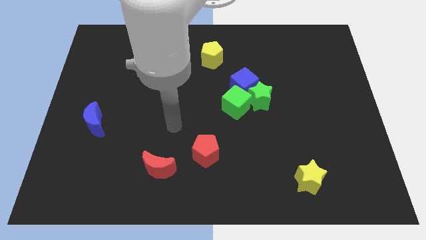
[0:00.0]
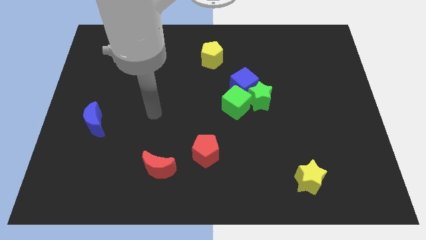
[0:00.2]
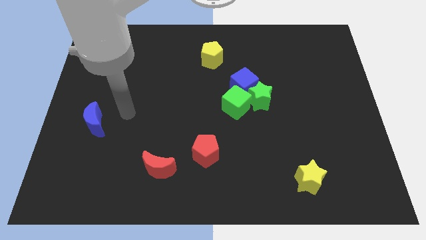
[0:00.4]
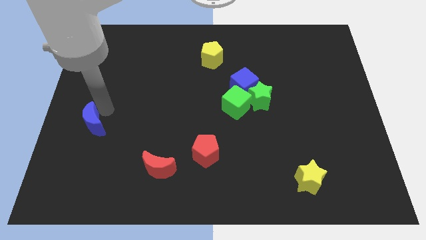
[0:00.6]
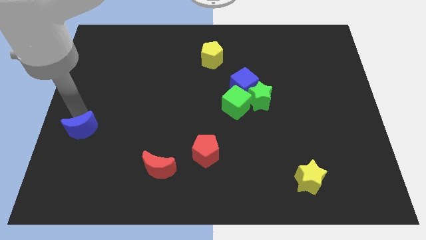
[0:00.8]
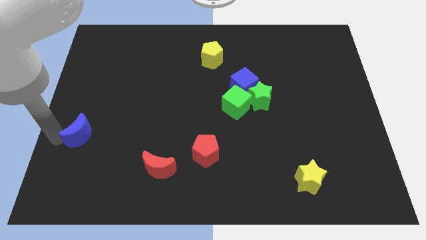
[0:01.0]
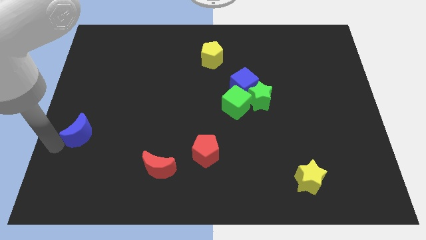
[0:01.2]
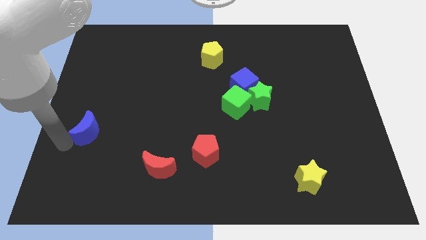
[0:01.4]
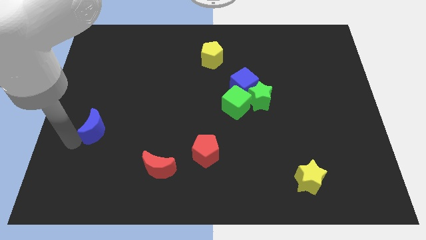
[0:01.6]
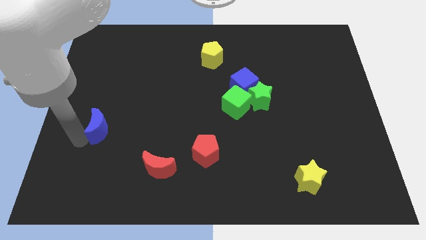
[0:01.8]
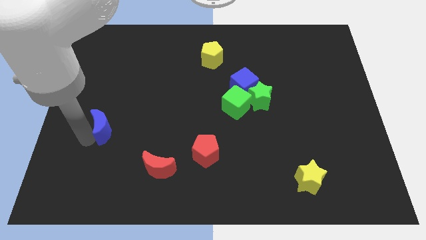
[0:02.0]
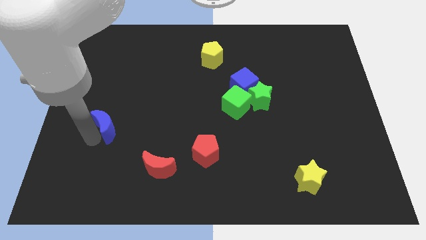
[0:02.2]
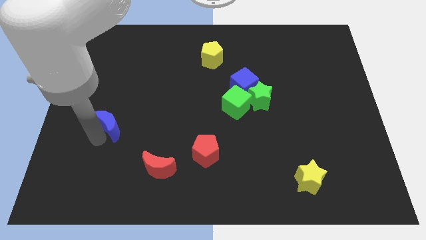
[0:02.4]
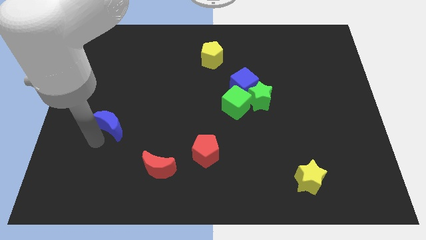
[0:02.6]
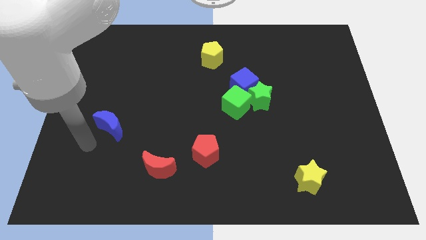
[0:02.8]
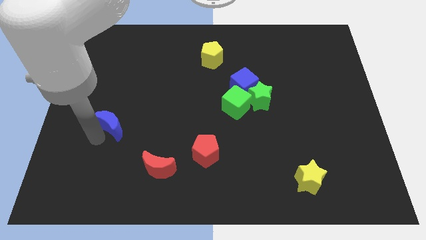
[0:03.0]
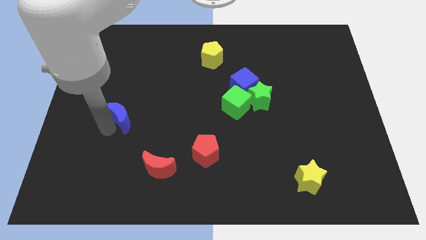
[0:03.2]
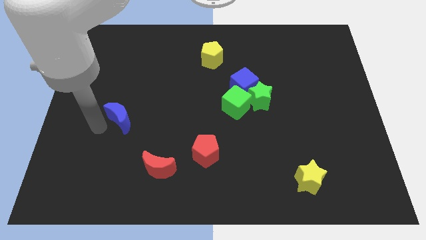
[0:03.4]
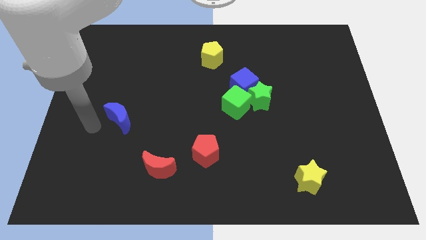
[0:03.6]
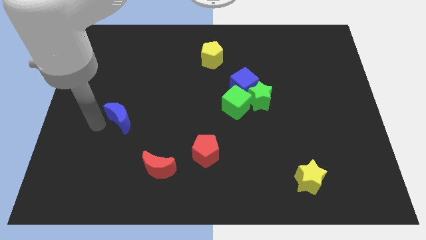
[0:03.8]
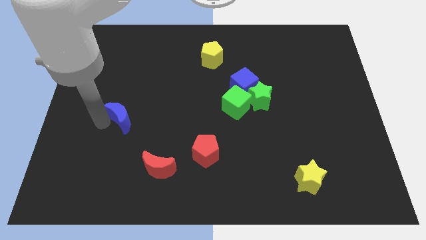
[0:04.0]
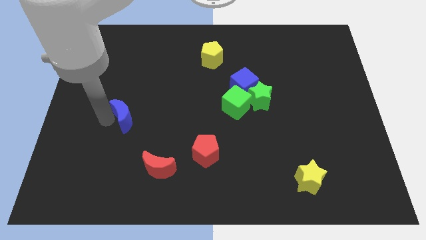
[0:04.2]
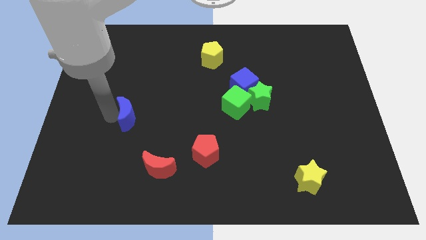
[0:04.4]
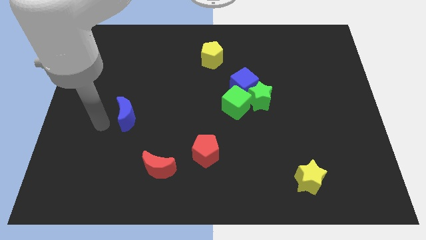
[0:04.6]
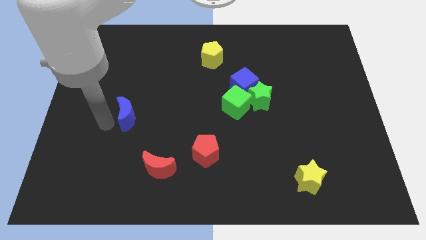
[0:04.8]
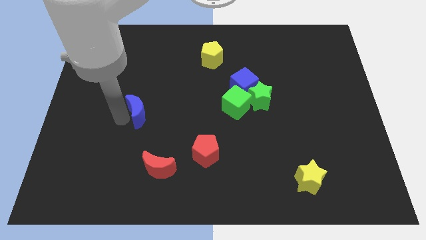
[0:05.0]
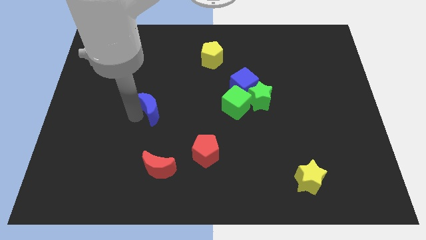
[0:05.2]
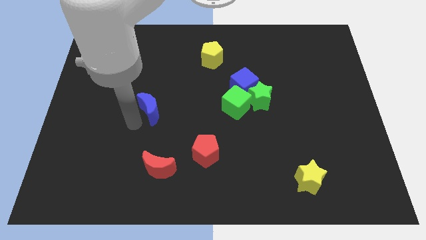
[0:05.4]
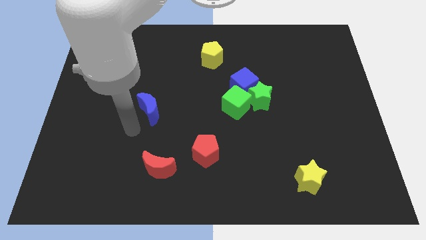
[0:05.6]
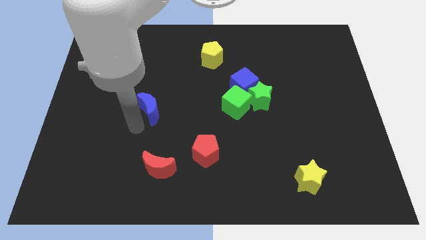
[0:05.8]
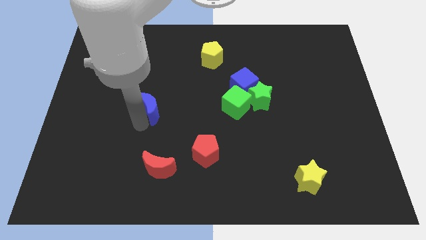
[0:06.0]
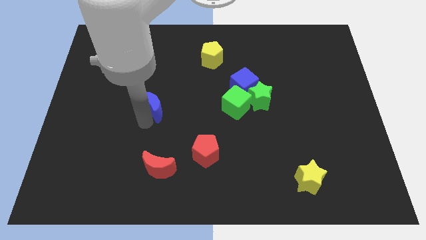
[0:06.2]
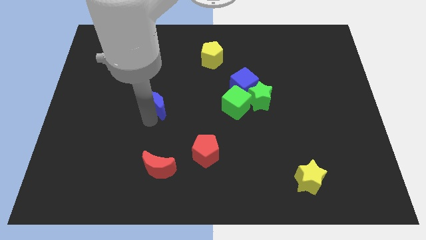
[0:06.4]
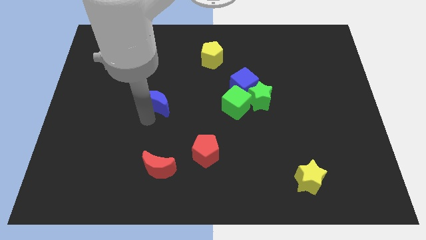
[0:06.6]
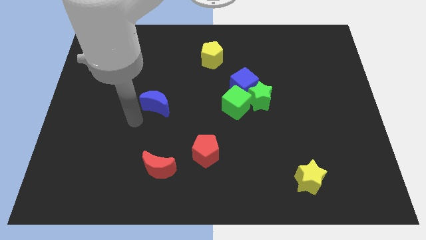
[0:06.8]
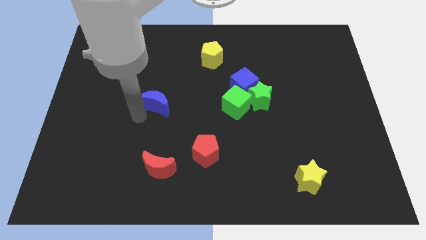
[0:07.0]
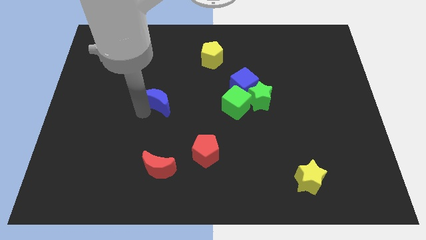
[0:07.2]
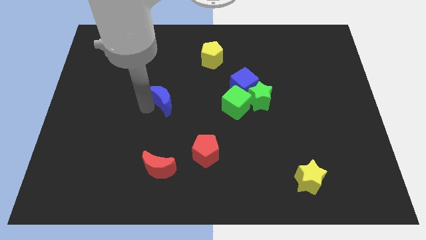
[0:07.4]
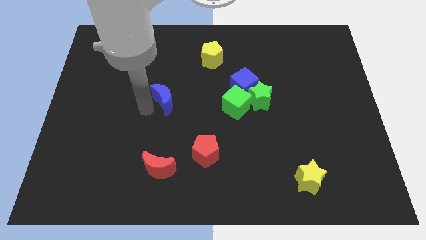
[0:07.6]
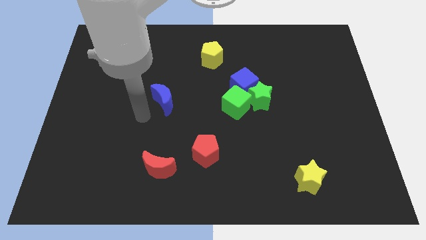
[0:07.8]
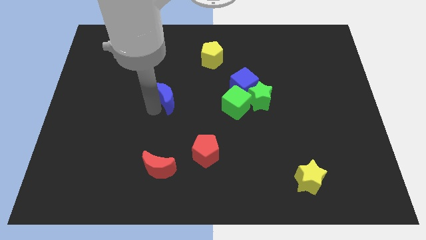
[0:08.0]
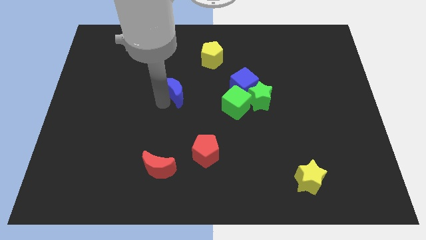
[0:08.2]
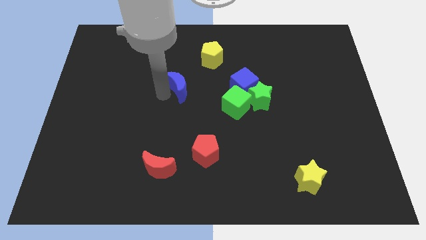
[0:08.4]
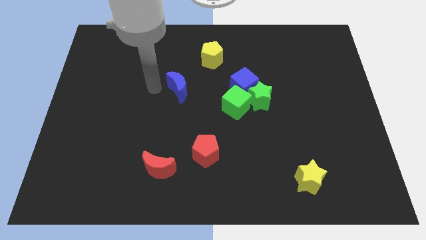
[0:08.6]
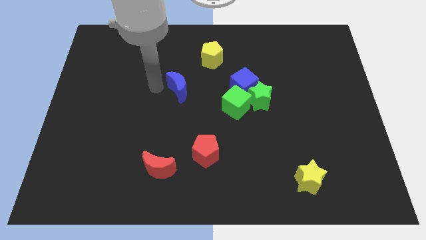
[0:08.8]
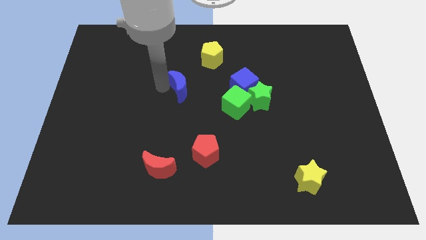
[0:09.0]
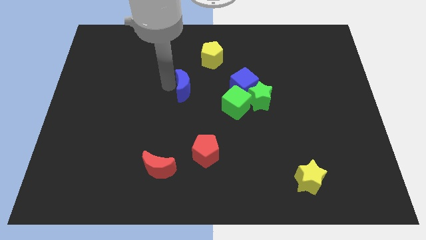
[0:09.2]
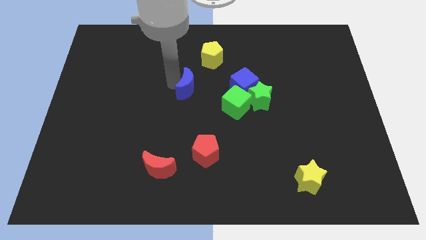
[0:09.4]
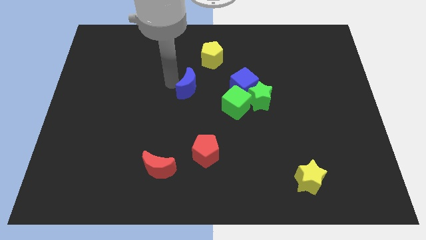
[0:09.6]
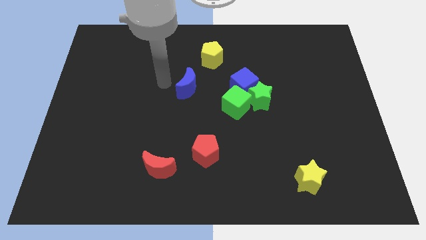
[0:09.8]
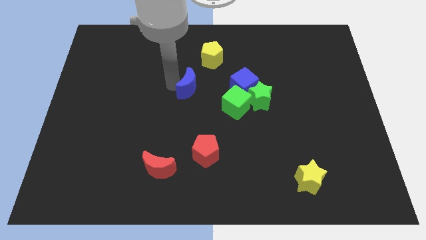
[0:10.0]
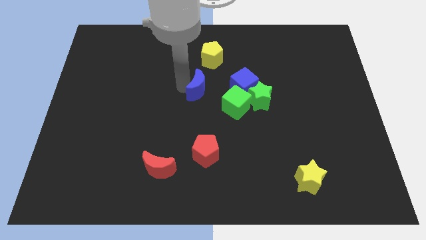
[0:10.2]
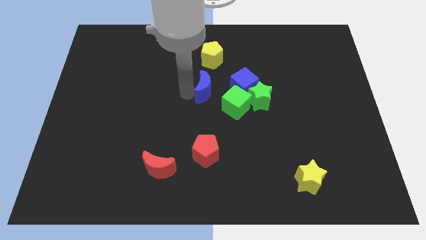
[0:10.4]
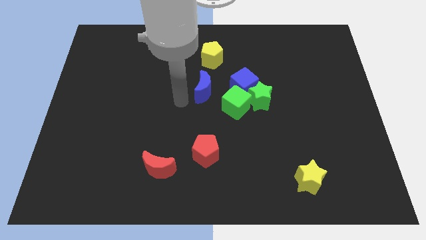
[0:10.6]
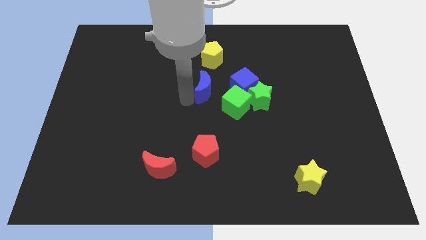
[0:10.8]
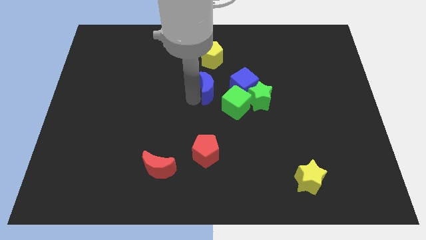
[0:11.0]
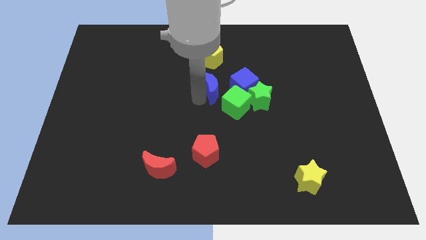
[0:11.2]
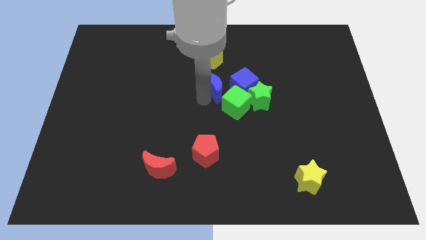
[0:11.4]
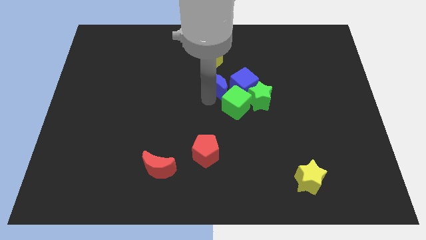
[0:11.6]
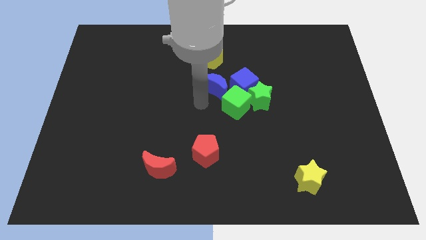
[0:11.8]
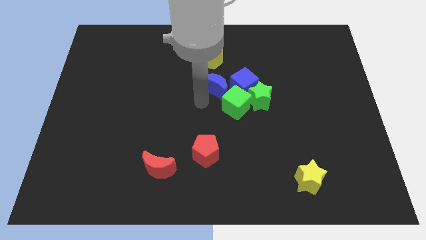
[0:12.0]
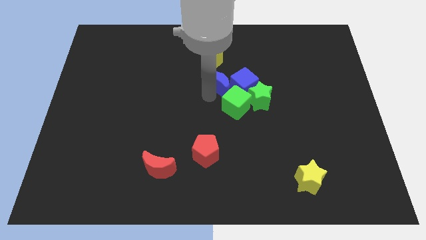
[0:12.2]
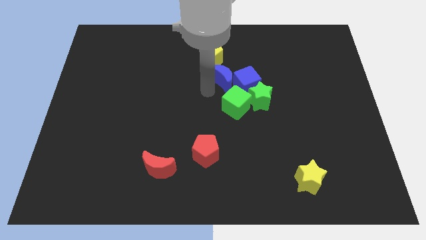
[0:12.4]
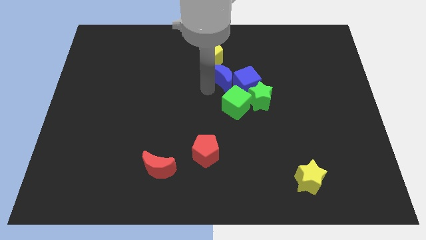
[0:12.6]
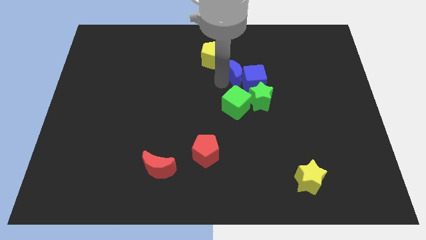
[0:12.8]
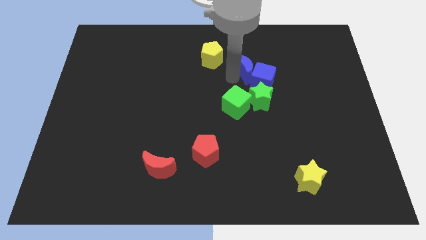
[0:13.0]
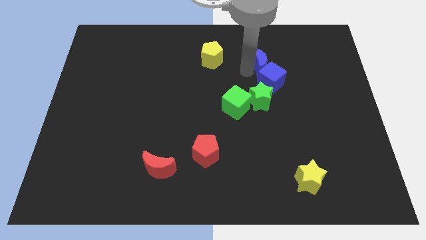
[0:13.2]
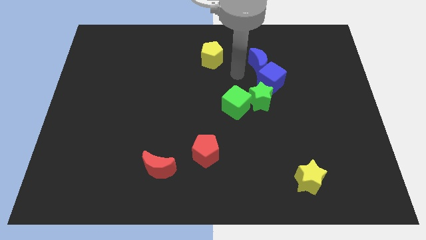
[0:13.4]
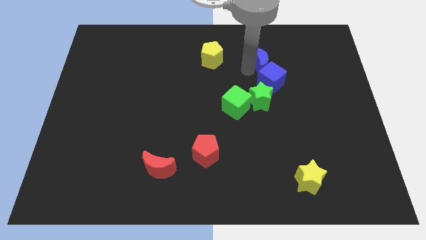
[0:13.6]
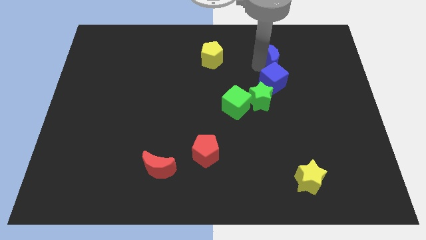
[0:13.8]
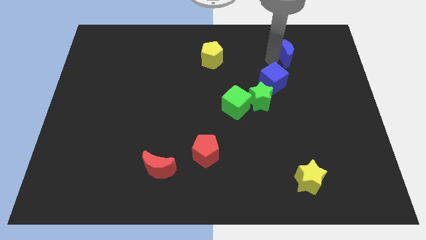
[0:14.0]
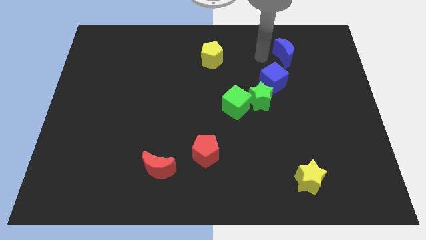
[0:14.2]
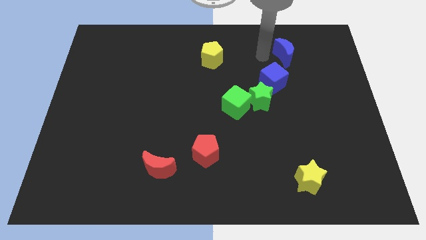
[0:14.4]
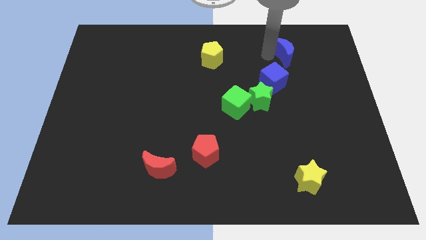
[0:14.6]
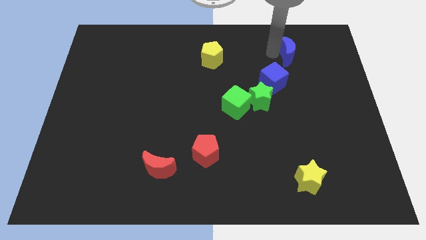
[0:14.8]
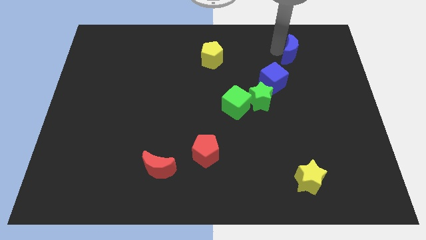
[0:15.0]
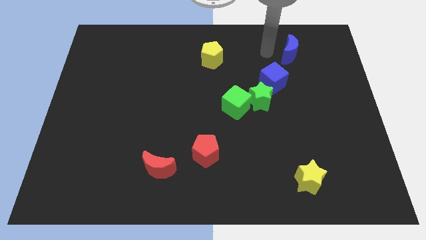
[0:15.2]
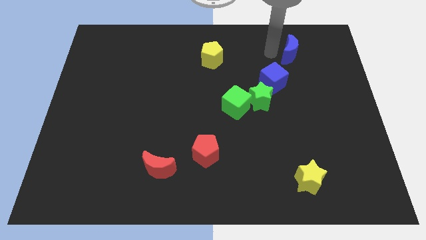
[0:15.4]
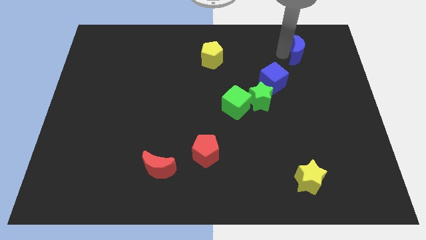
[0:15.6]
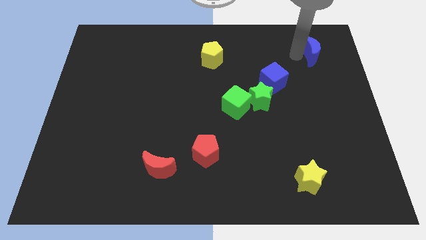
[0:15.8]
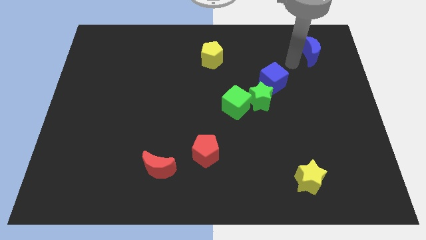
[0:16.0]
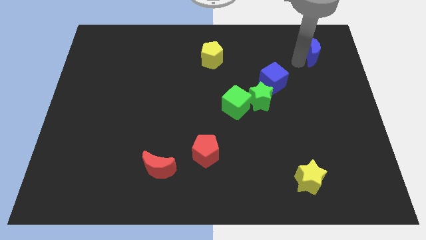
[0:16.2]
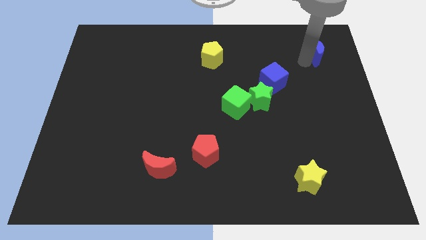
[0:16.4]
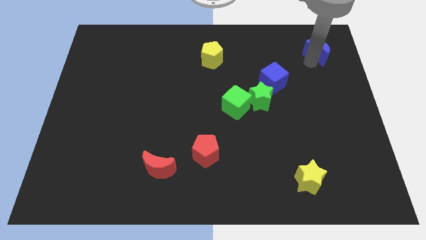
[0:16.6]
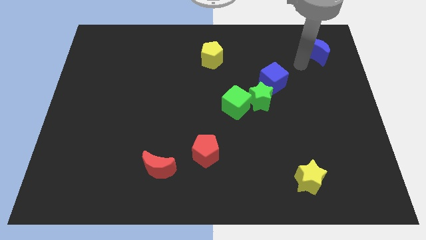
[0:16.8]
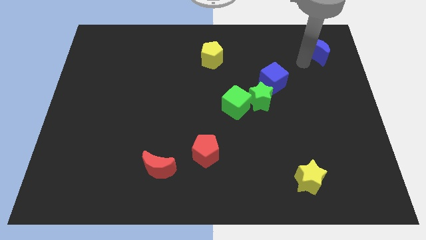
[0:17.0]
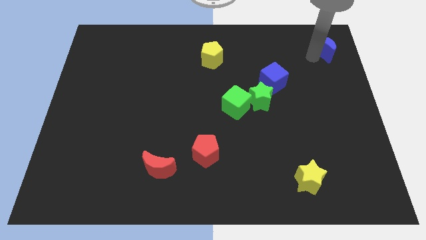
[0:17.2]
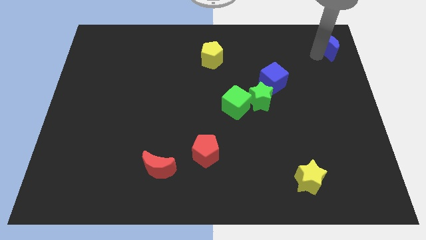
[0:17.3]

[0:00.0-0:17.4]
push the blue moon to the top right of the board
